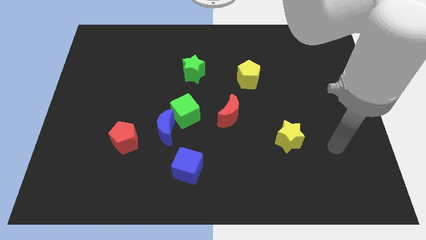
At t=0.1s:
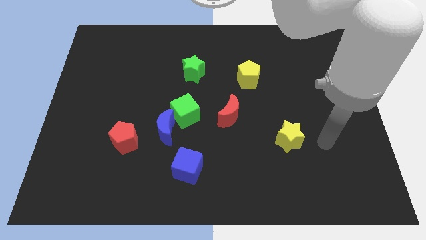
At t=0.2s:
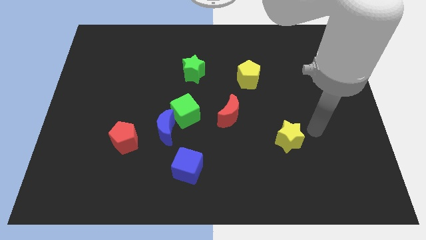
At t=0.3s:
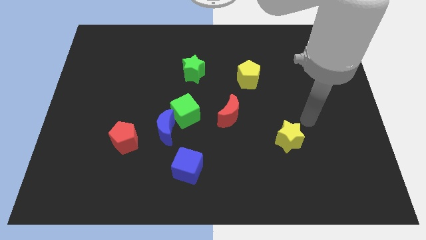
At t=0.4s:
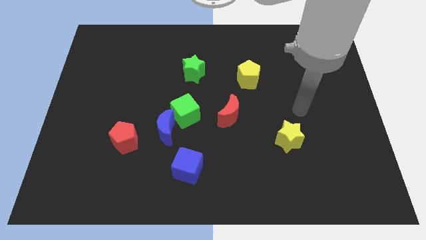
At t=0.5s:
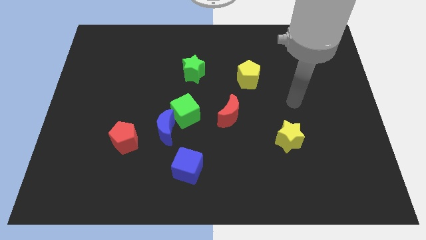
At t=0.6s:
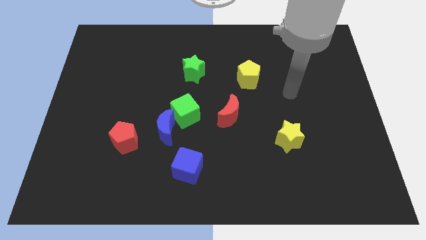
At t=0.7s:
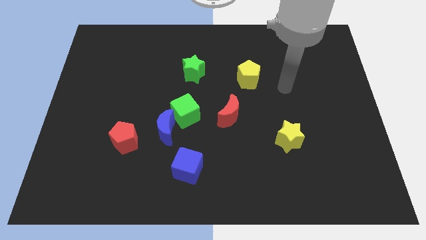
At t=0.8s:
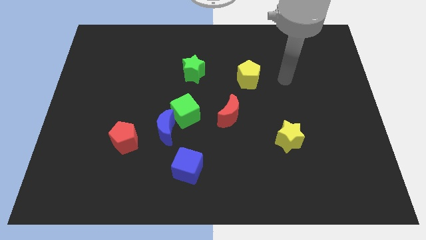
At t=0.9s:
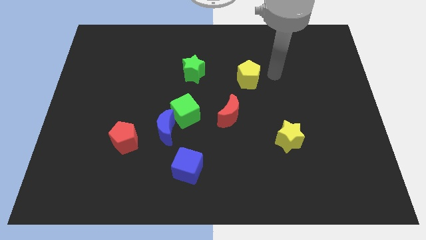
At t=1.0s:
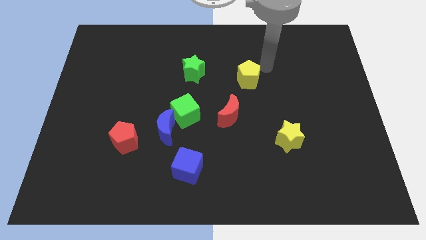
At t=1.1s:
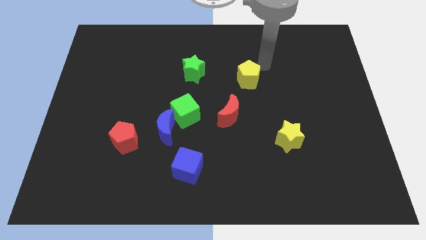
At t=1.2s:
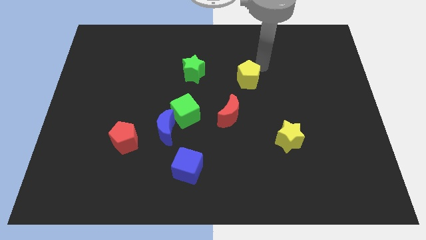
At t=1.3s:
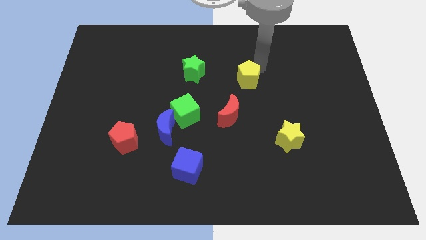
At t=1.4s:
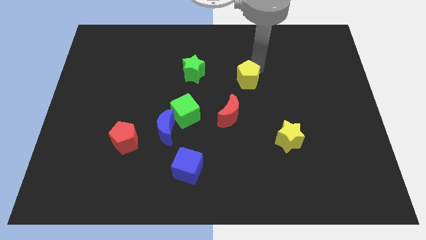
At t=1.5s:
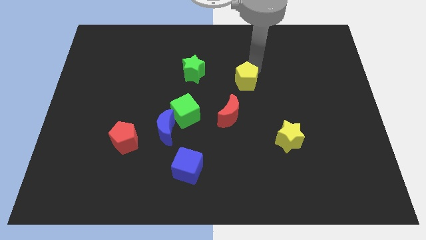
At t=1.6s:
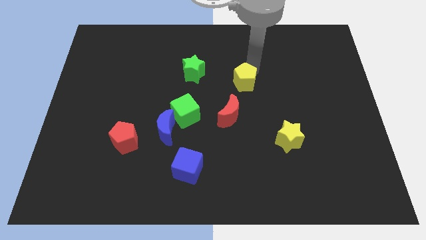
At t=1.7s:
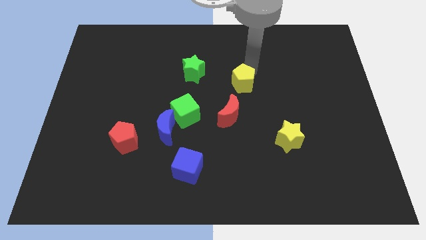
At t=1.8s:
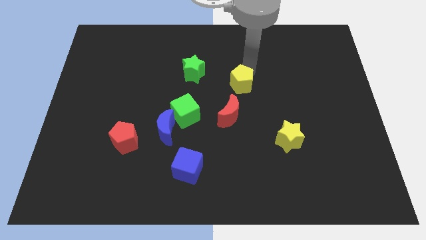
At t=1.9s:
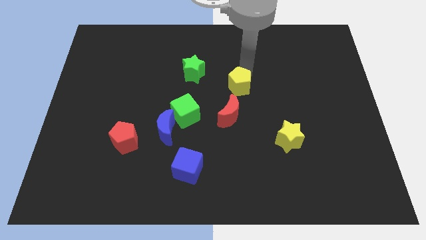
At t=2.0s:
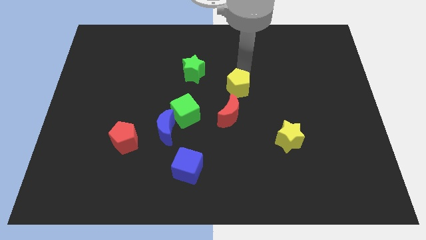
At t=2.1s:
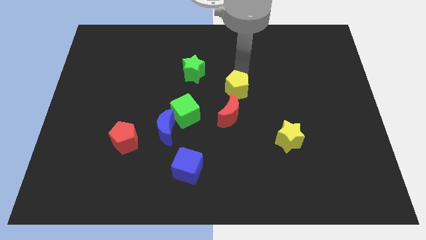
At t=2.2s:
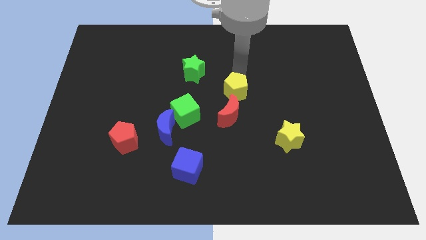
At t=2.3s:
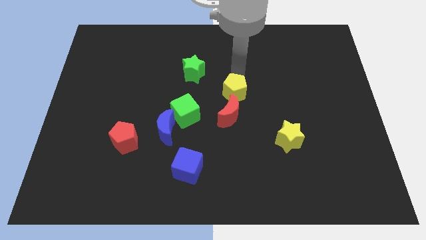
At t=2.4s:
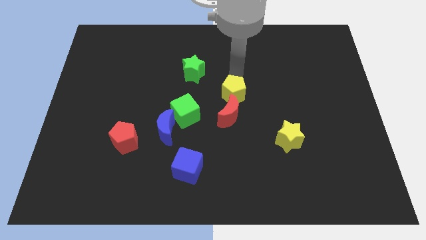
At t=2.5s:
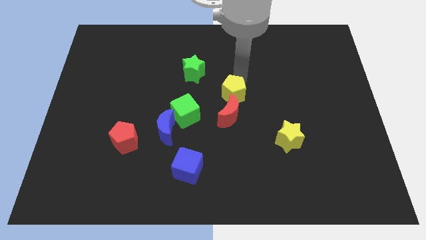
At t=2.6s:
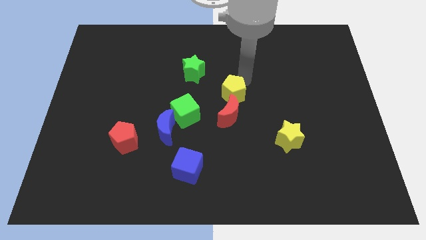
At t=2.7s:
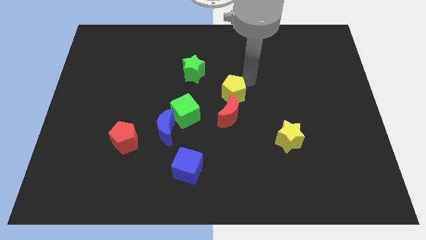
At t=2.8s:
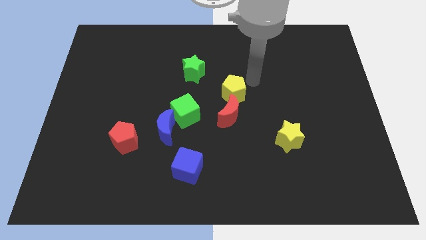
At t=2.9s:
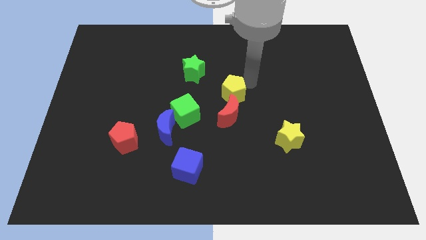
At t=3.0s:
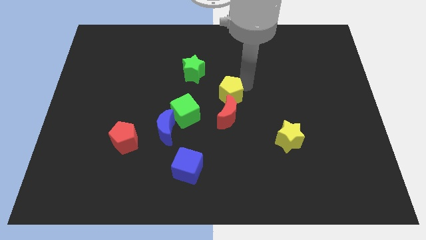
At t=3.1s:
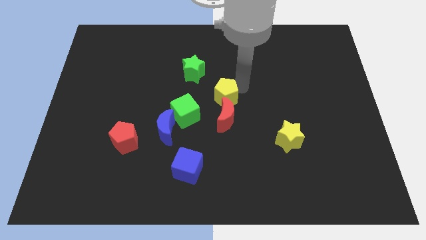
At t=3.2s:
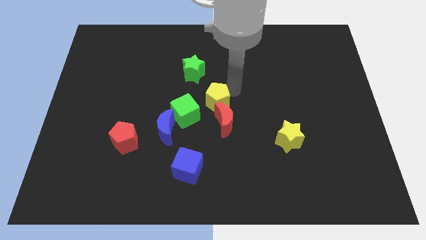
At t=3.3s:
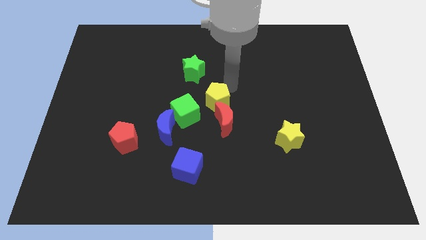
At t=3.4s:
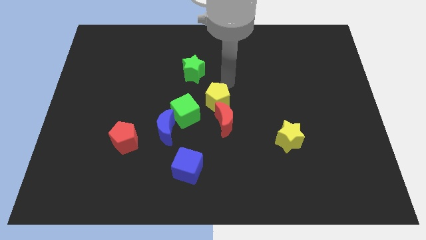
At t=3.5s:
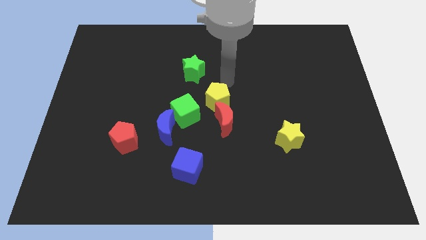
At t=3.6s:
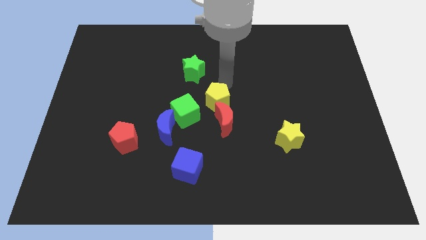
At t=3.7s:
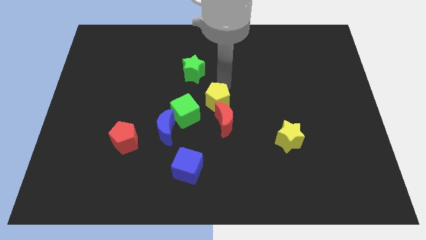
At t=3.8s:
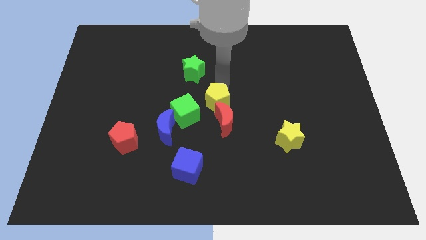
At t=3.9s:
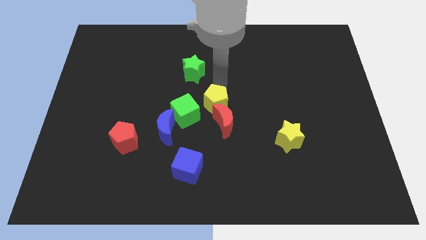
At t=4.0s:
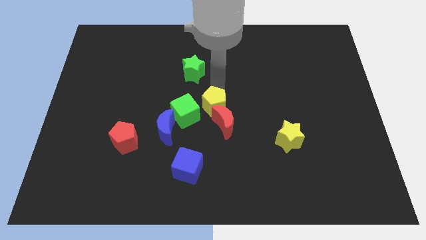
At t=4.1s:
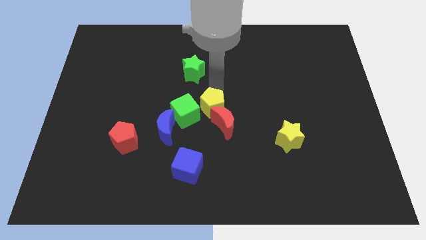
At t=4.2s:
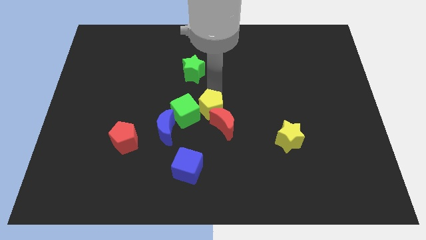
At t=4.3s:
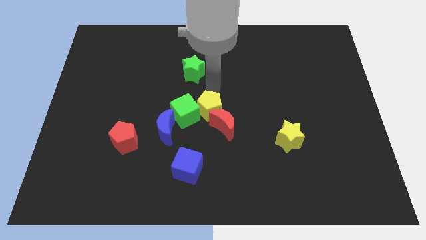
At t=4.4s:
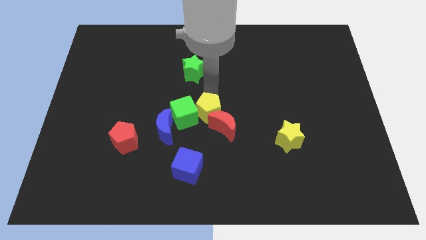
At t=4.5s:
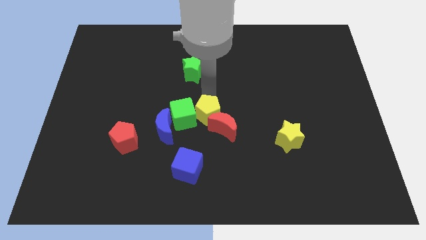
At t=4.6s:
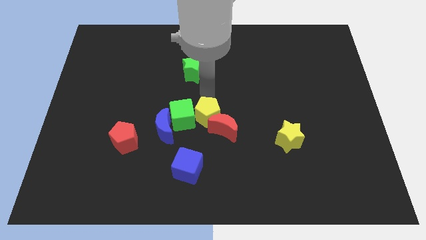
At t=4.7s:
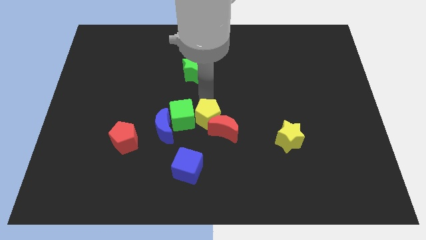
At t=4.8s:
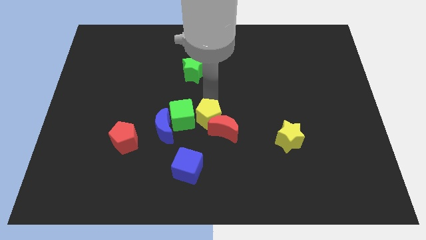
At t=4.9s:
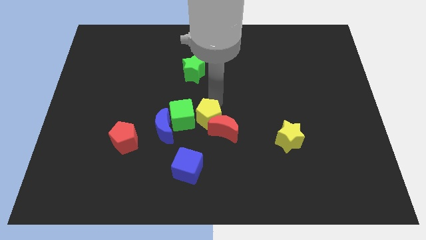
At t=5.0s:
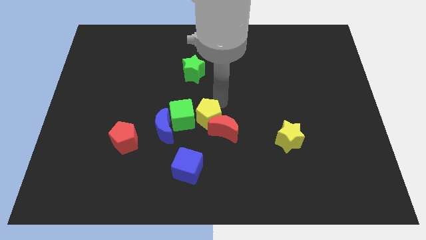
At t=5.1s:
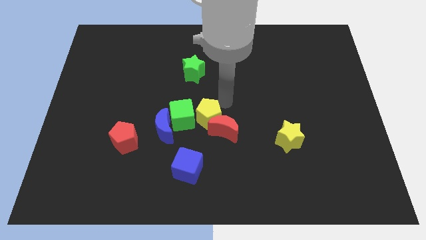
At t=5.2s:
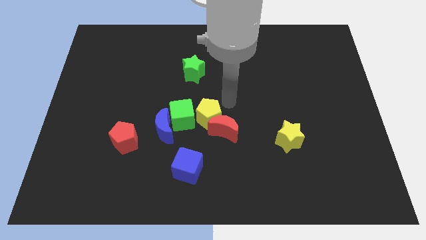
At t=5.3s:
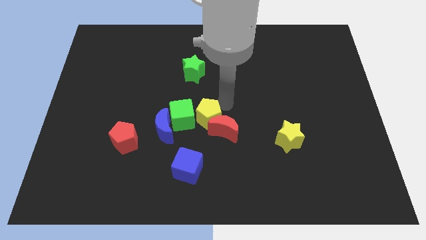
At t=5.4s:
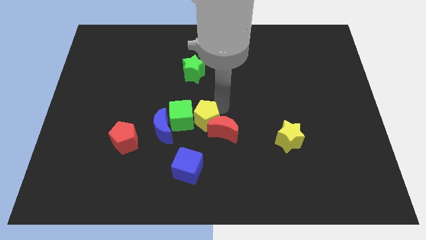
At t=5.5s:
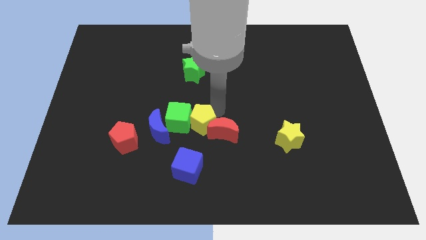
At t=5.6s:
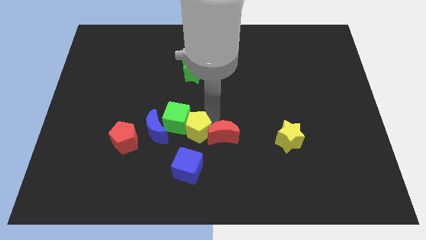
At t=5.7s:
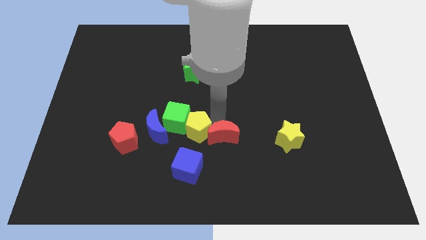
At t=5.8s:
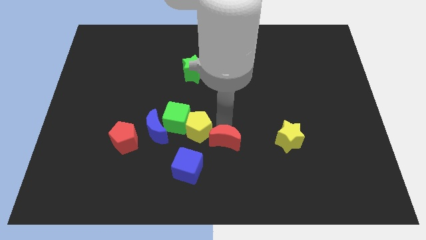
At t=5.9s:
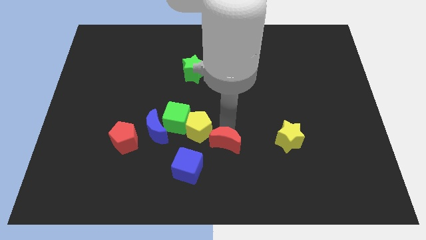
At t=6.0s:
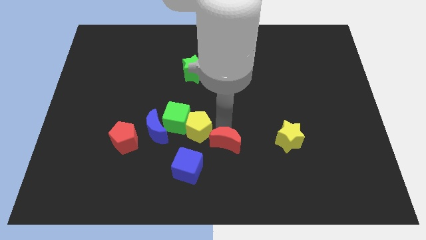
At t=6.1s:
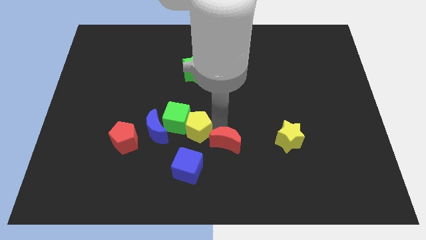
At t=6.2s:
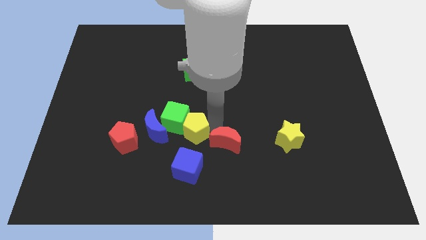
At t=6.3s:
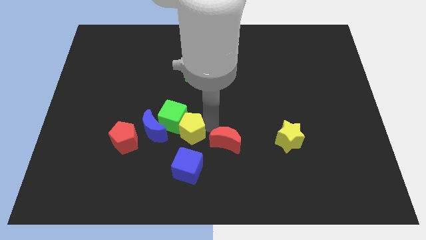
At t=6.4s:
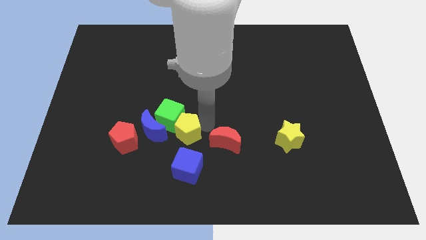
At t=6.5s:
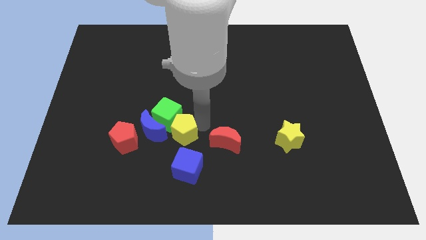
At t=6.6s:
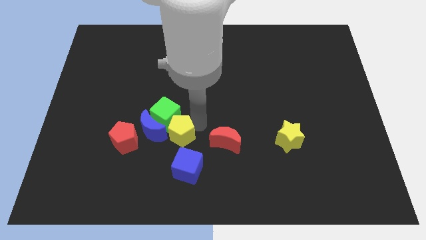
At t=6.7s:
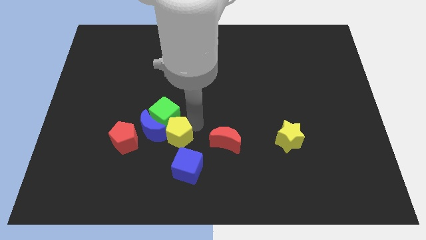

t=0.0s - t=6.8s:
move the yellow pentagon towards the blue moon

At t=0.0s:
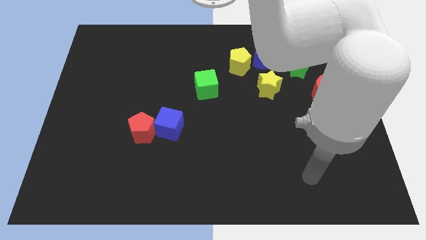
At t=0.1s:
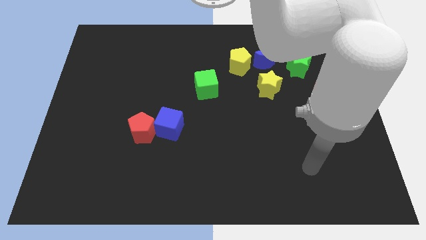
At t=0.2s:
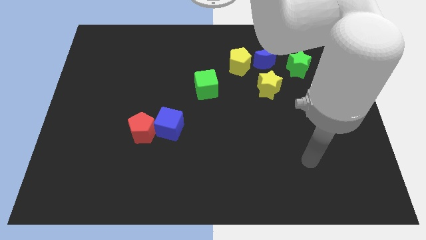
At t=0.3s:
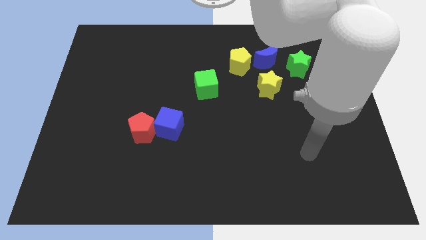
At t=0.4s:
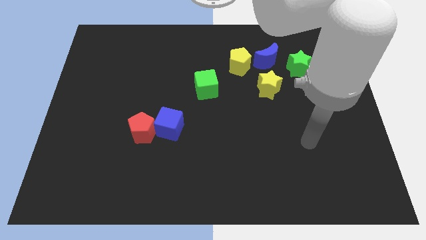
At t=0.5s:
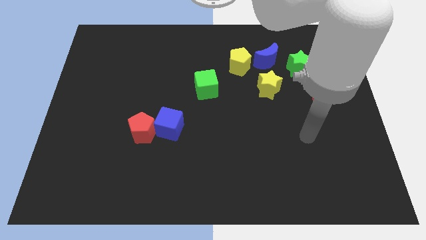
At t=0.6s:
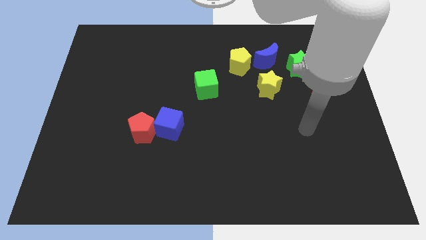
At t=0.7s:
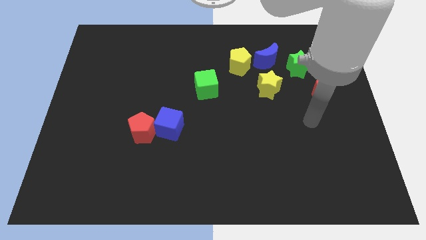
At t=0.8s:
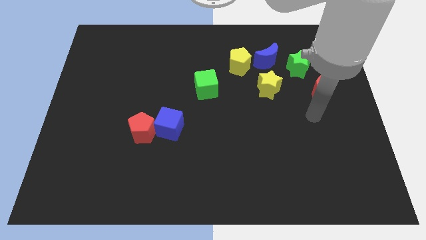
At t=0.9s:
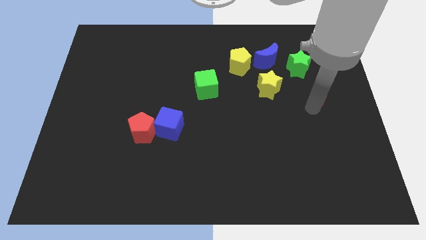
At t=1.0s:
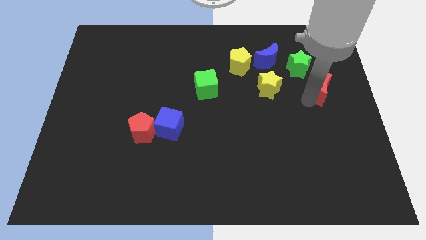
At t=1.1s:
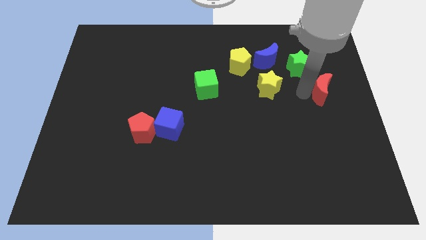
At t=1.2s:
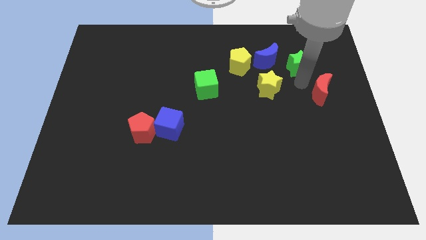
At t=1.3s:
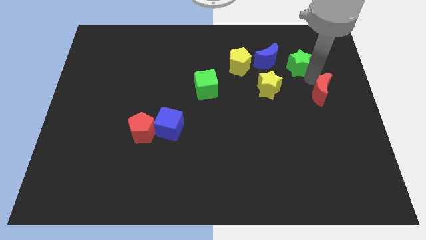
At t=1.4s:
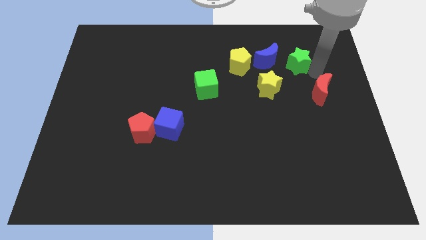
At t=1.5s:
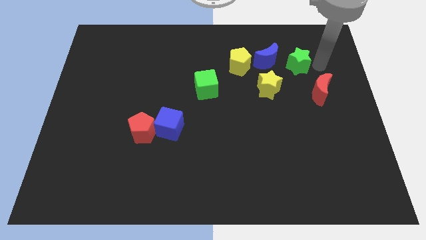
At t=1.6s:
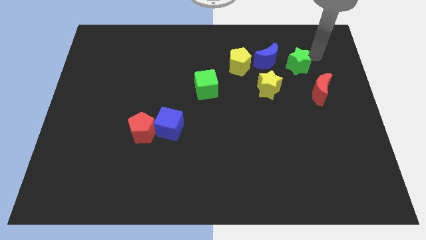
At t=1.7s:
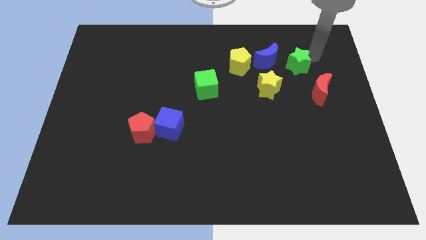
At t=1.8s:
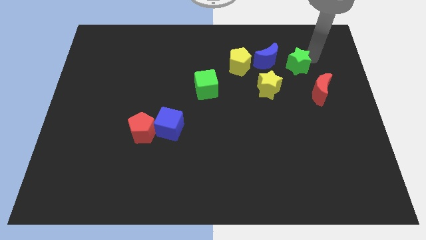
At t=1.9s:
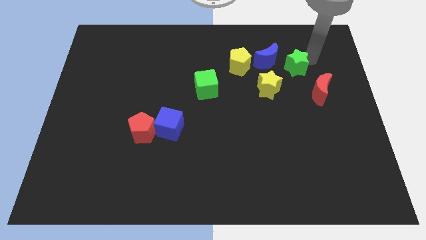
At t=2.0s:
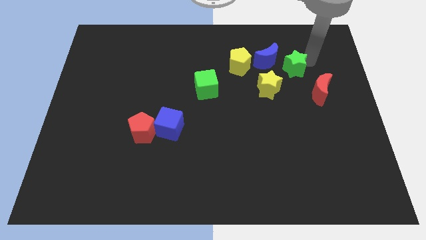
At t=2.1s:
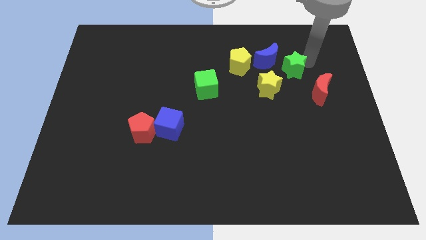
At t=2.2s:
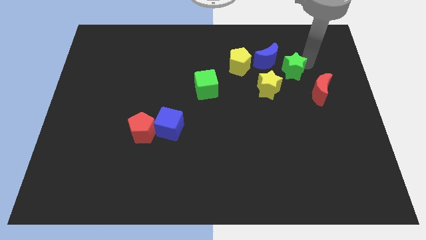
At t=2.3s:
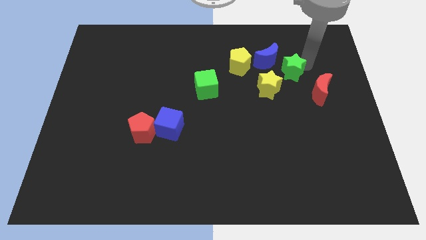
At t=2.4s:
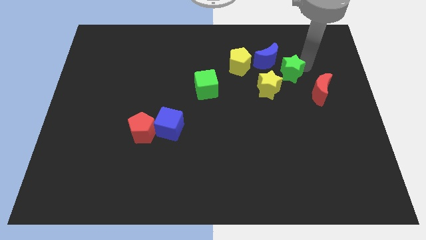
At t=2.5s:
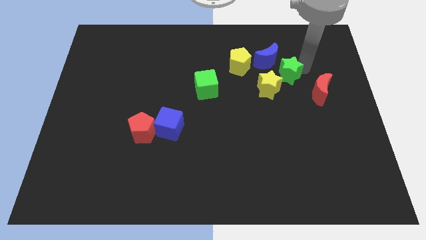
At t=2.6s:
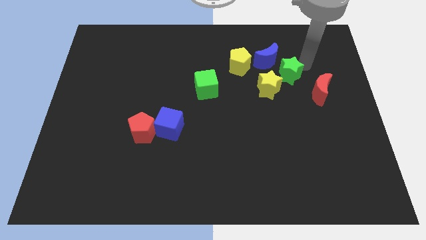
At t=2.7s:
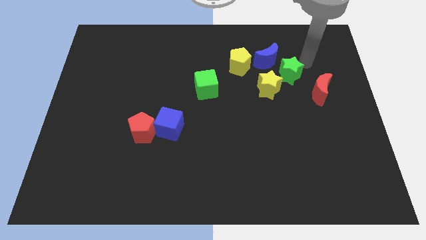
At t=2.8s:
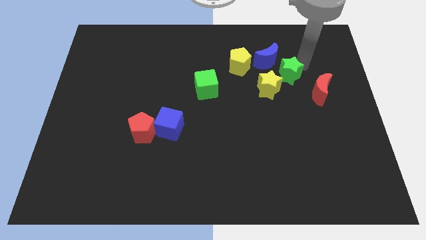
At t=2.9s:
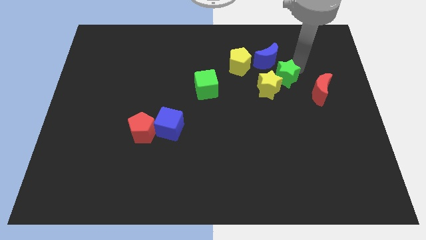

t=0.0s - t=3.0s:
move the green star close to the yellow star
